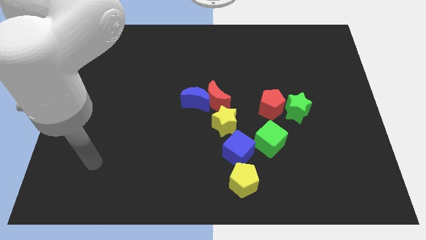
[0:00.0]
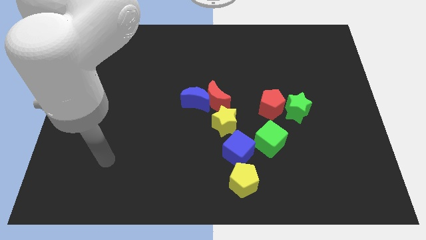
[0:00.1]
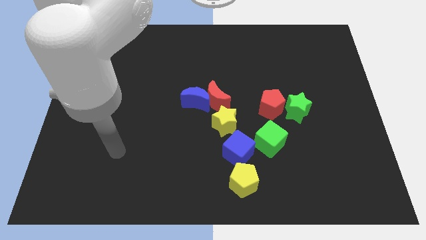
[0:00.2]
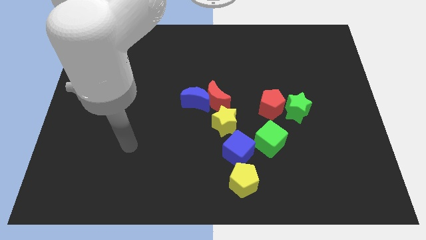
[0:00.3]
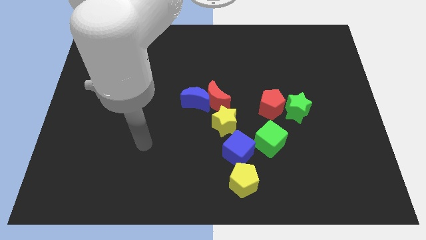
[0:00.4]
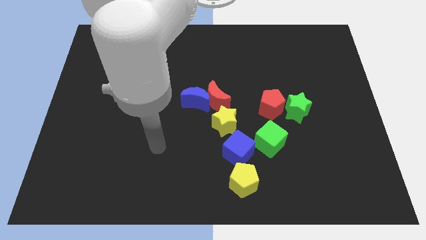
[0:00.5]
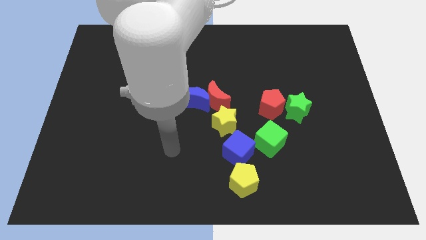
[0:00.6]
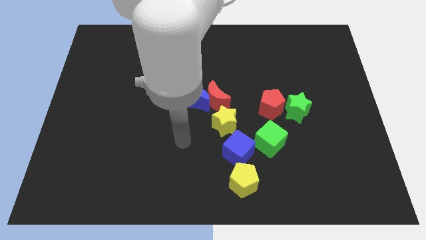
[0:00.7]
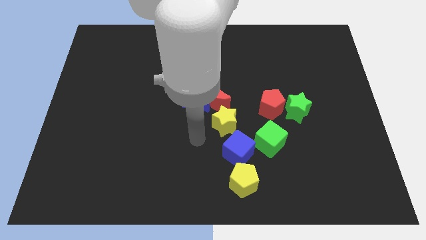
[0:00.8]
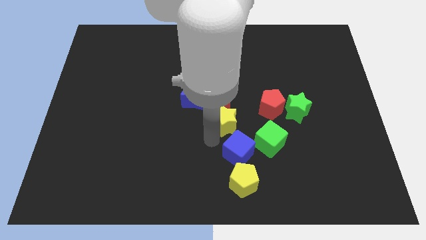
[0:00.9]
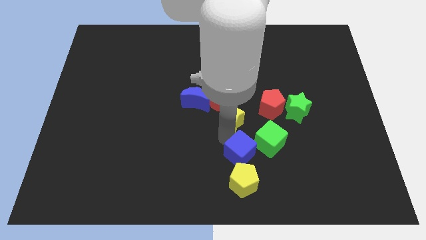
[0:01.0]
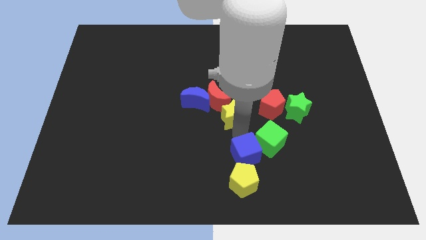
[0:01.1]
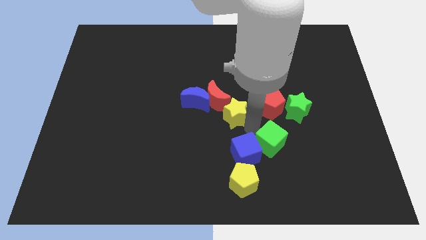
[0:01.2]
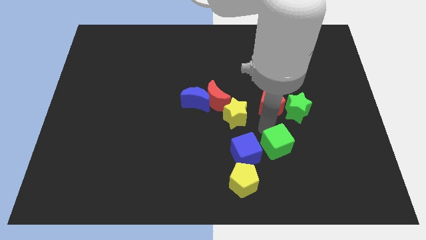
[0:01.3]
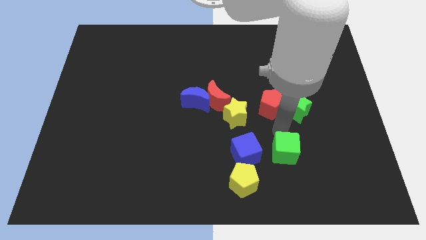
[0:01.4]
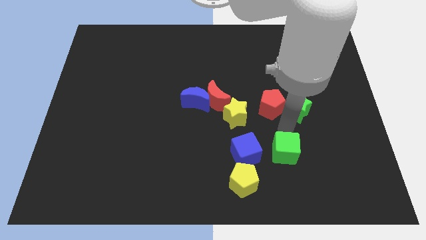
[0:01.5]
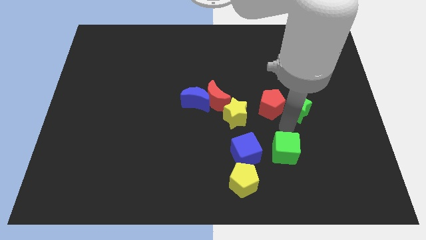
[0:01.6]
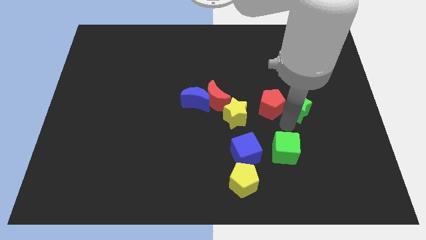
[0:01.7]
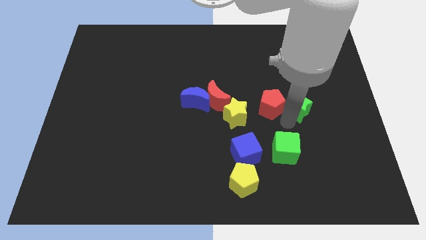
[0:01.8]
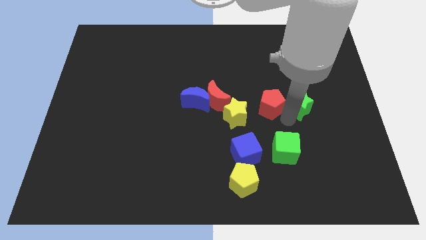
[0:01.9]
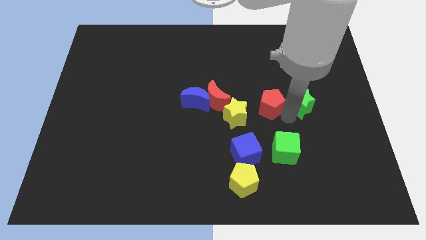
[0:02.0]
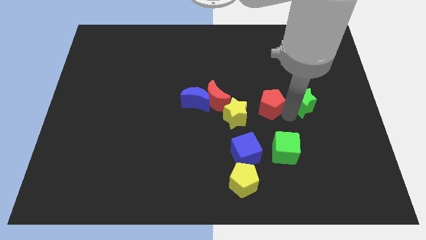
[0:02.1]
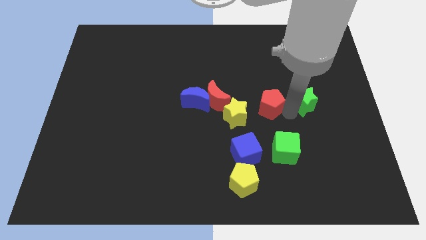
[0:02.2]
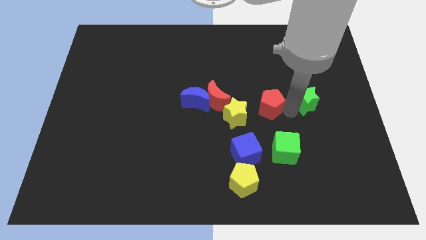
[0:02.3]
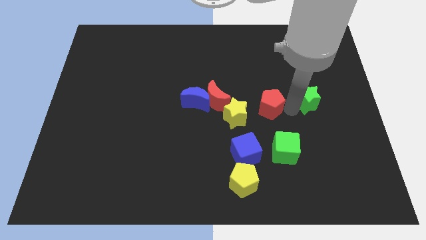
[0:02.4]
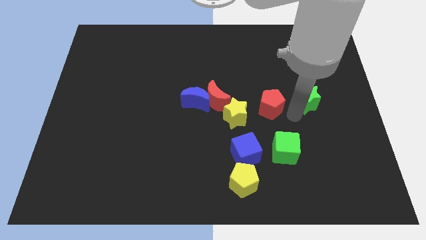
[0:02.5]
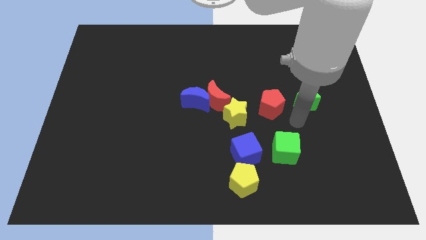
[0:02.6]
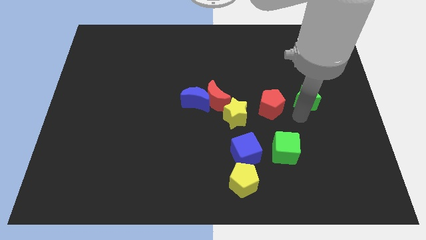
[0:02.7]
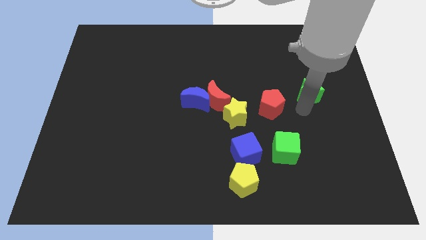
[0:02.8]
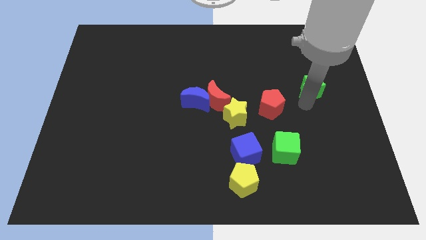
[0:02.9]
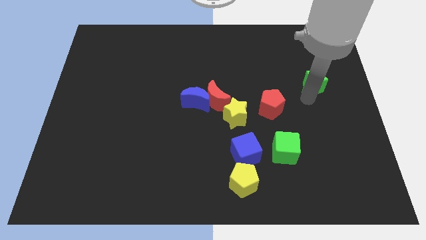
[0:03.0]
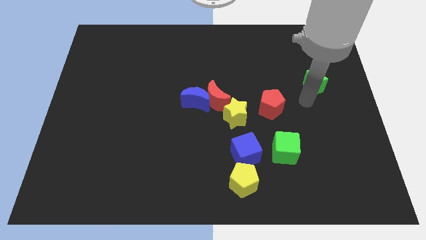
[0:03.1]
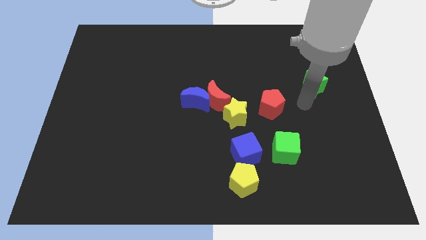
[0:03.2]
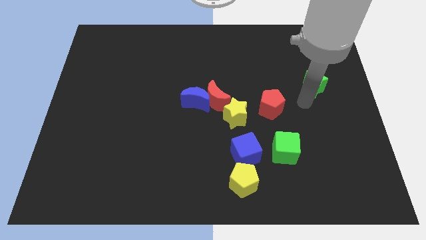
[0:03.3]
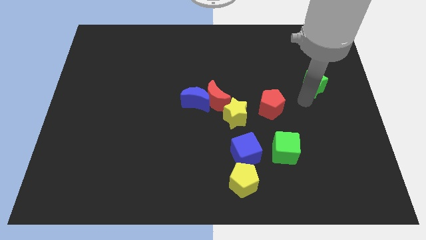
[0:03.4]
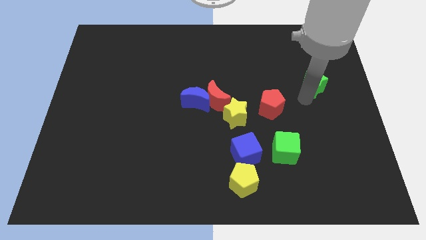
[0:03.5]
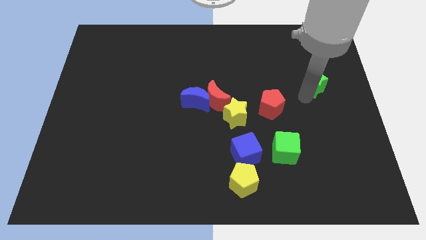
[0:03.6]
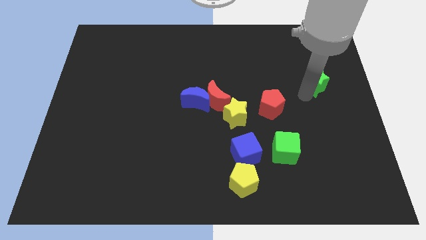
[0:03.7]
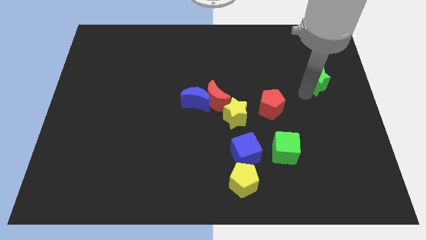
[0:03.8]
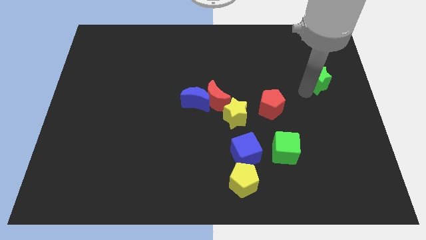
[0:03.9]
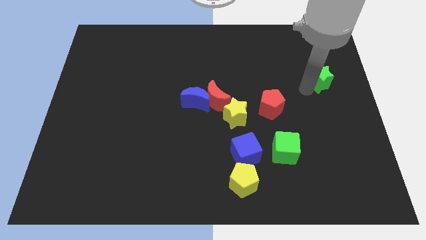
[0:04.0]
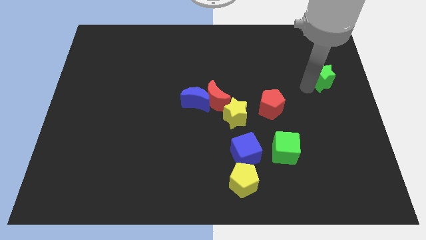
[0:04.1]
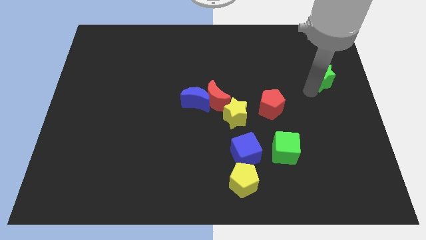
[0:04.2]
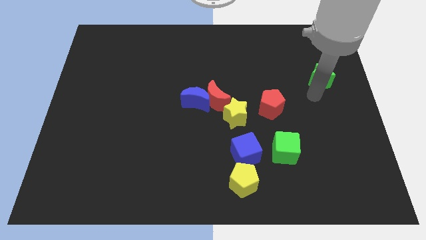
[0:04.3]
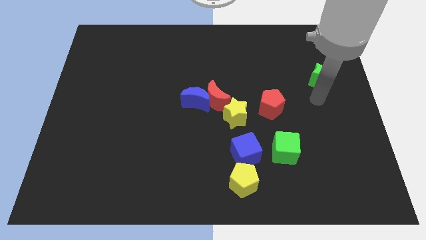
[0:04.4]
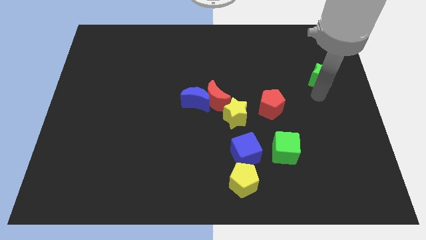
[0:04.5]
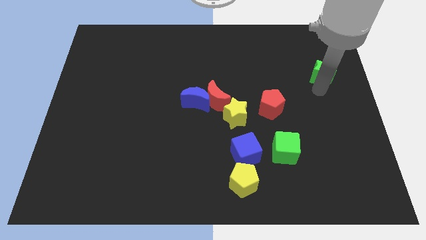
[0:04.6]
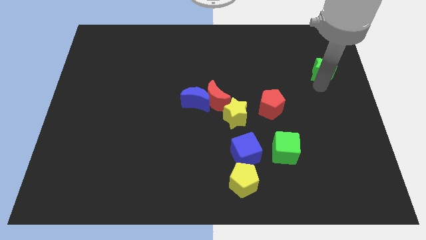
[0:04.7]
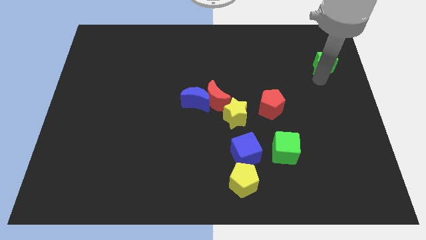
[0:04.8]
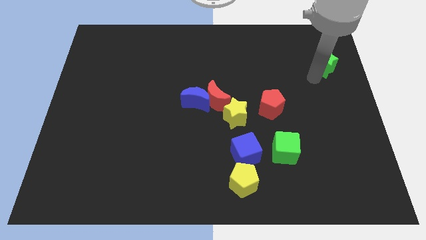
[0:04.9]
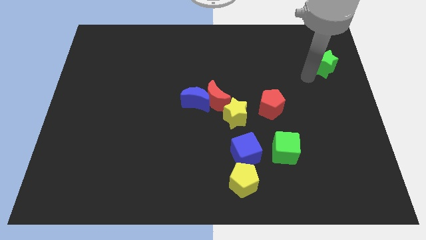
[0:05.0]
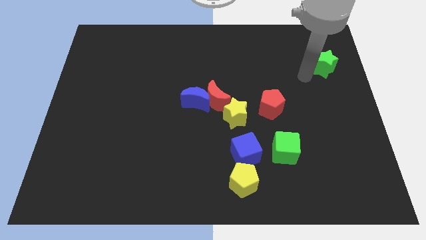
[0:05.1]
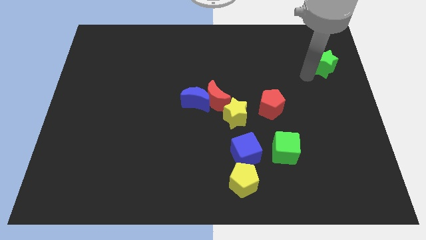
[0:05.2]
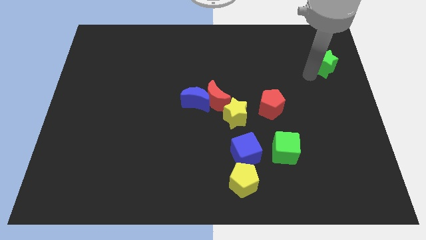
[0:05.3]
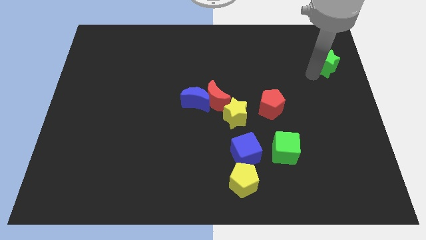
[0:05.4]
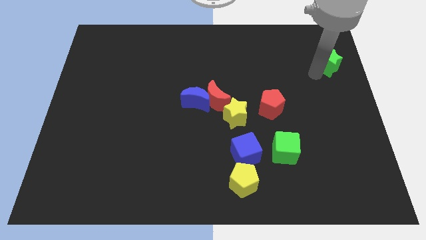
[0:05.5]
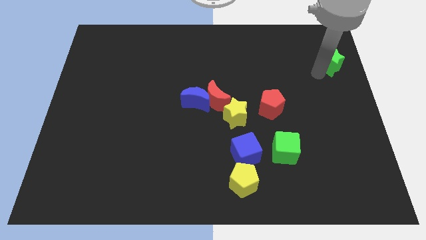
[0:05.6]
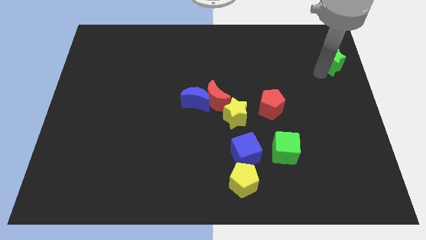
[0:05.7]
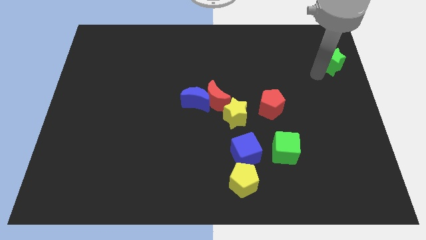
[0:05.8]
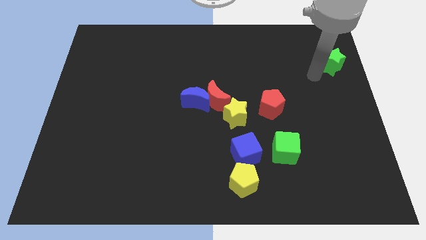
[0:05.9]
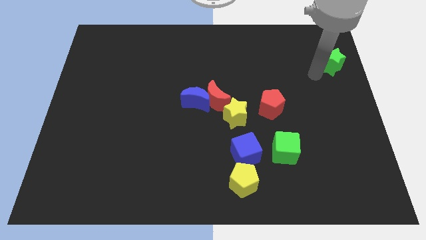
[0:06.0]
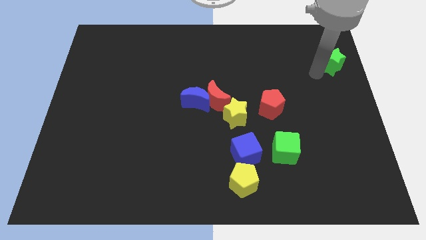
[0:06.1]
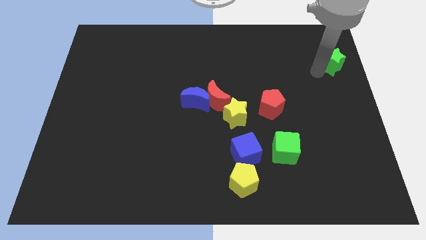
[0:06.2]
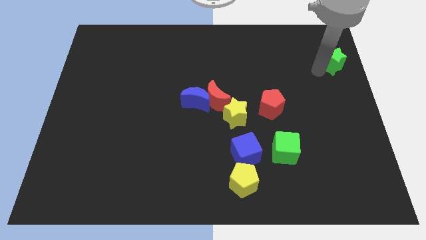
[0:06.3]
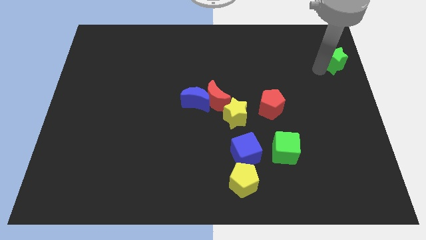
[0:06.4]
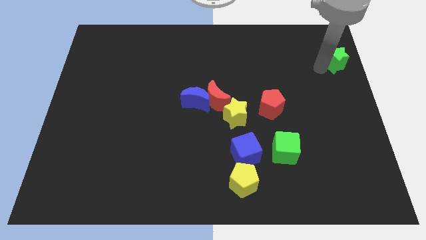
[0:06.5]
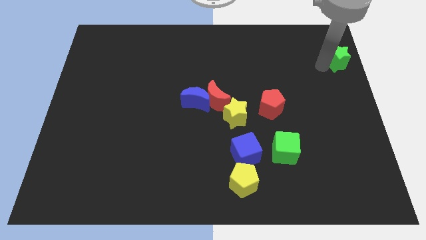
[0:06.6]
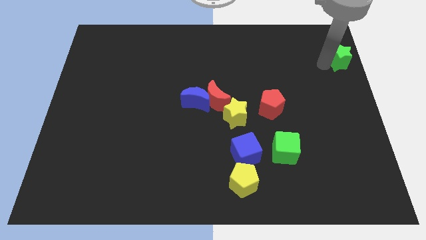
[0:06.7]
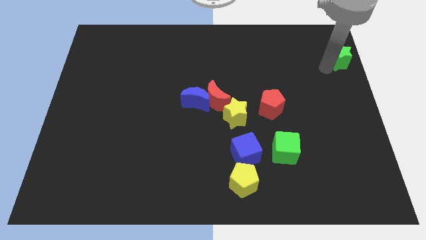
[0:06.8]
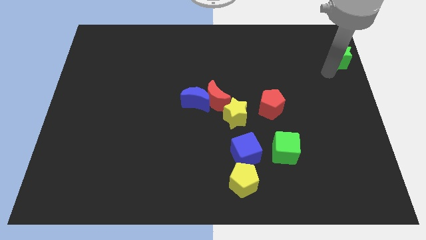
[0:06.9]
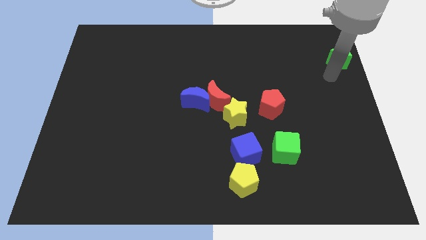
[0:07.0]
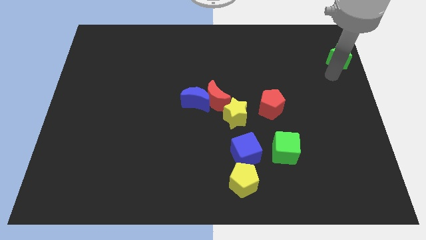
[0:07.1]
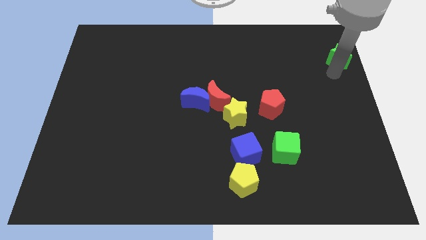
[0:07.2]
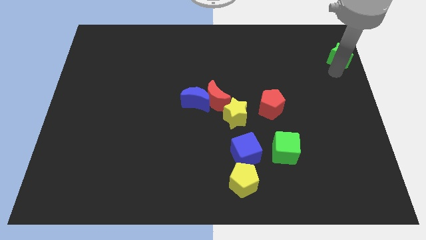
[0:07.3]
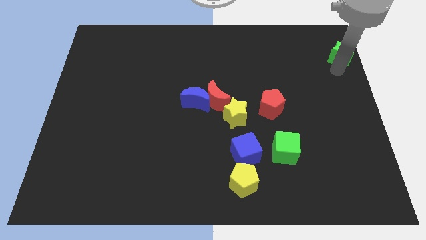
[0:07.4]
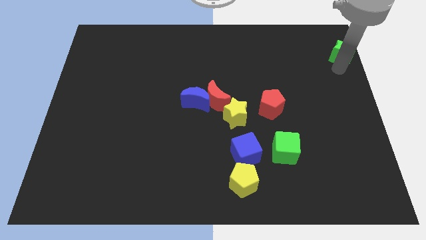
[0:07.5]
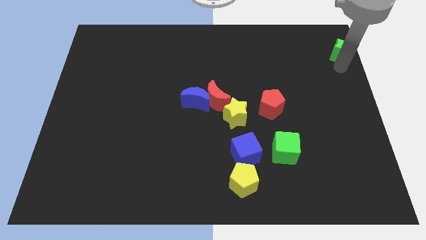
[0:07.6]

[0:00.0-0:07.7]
move the green star to the top right of the board
